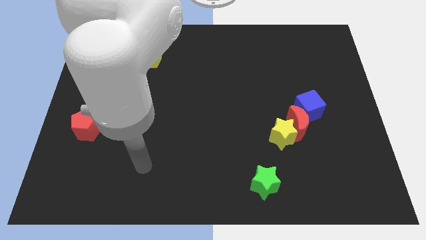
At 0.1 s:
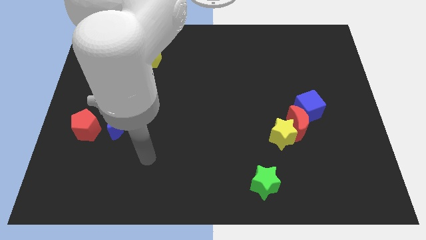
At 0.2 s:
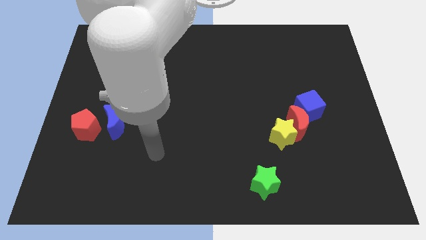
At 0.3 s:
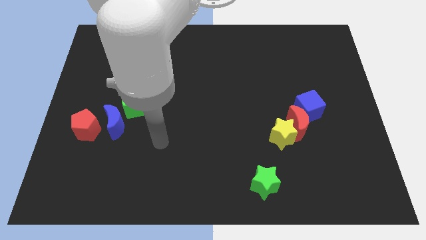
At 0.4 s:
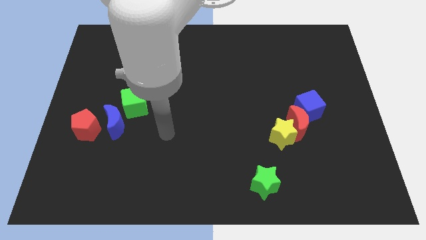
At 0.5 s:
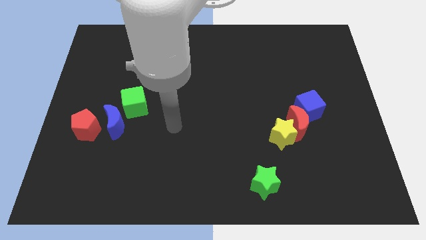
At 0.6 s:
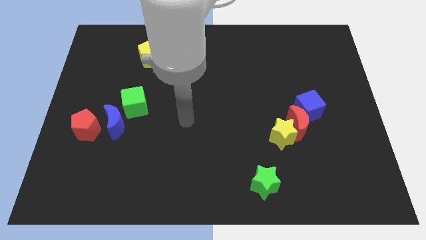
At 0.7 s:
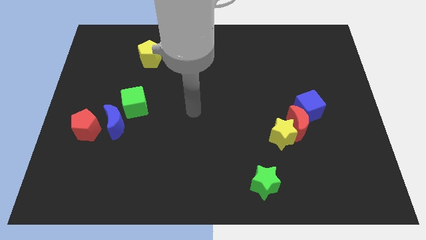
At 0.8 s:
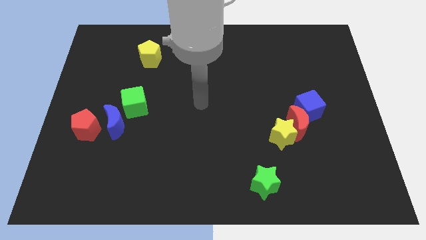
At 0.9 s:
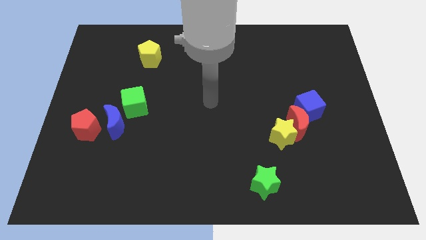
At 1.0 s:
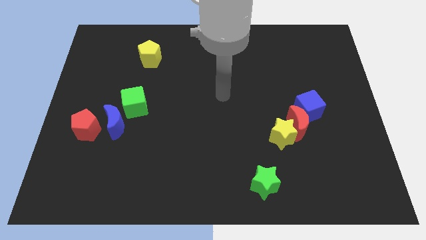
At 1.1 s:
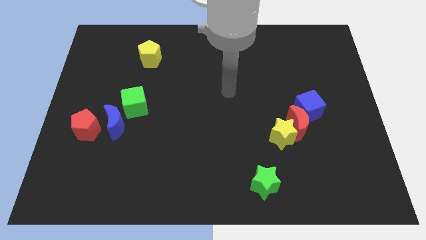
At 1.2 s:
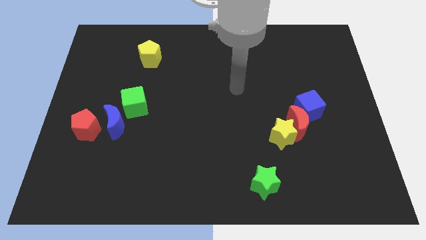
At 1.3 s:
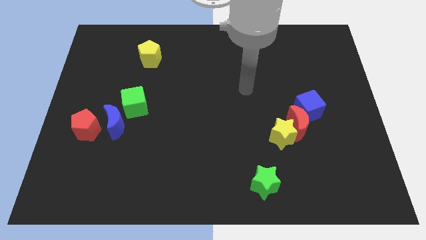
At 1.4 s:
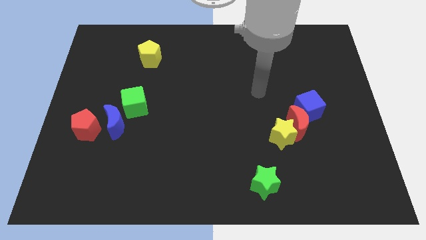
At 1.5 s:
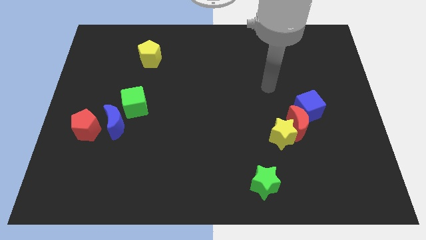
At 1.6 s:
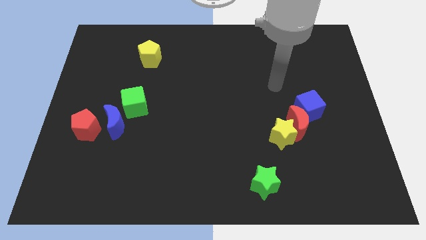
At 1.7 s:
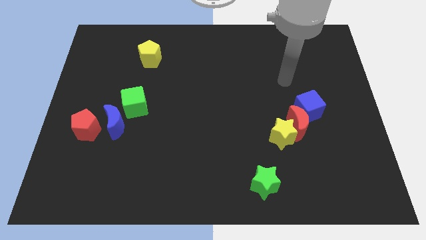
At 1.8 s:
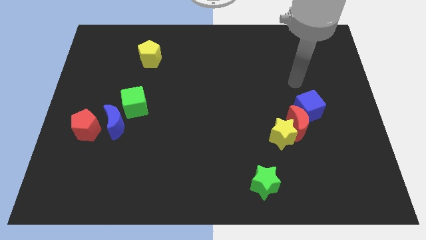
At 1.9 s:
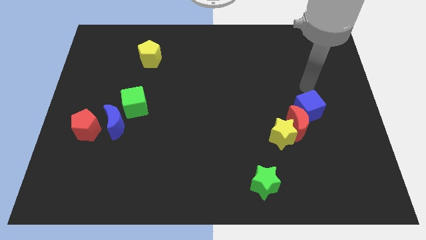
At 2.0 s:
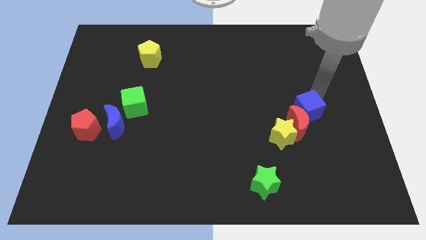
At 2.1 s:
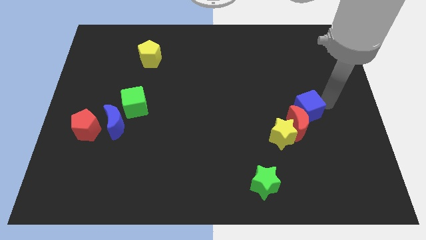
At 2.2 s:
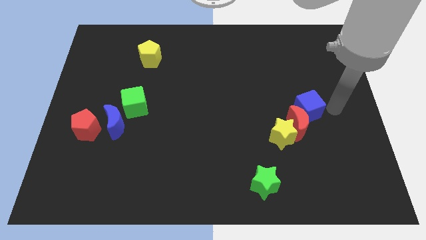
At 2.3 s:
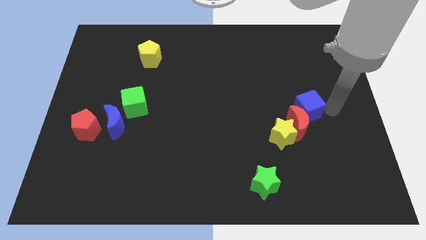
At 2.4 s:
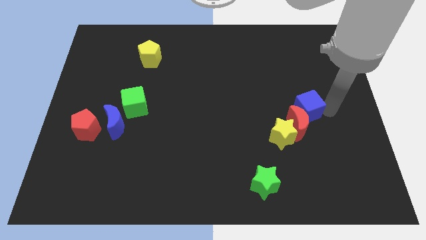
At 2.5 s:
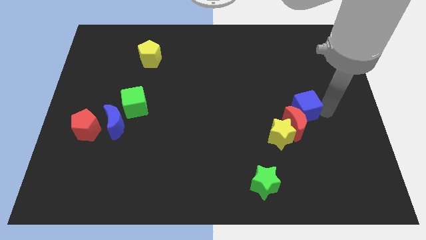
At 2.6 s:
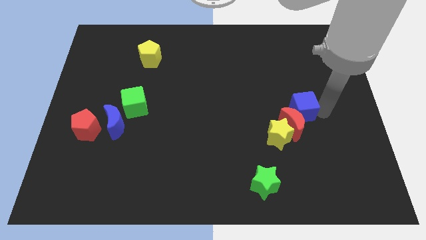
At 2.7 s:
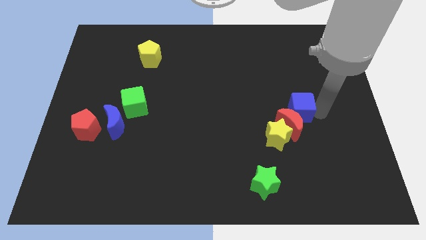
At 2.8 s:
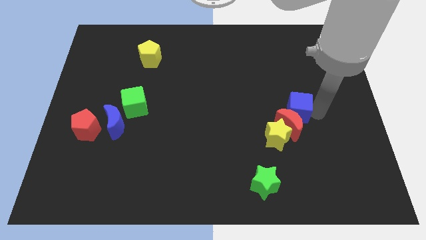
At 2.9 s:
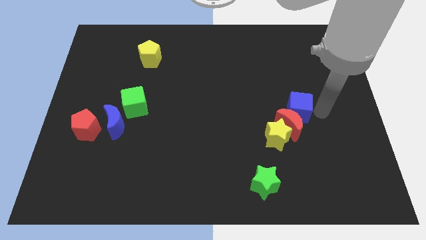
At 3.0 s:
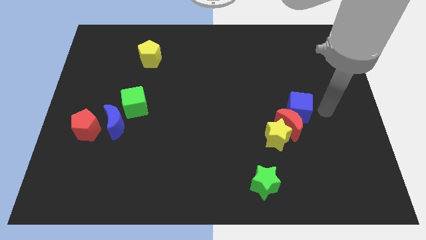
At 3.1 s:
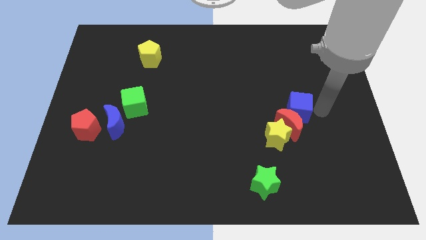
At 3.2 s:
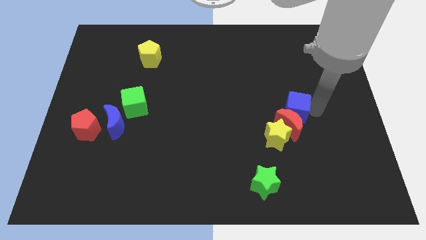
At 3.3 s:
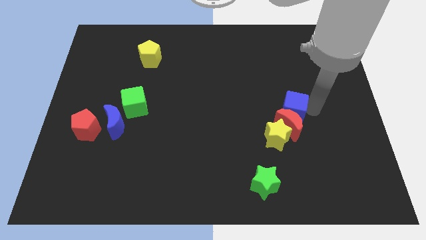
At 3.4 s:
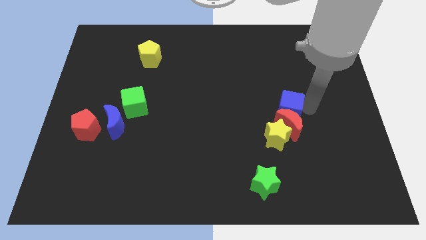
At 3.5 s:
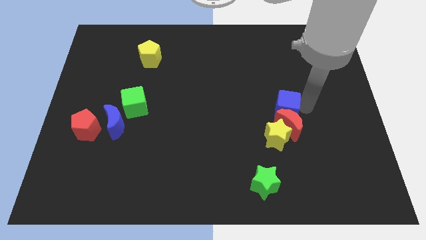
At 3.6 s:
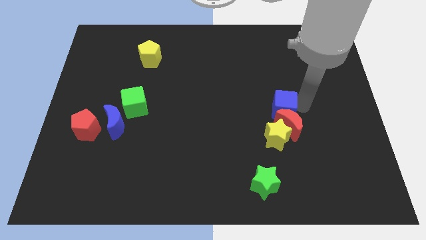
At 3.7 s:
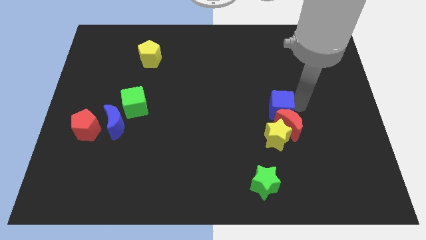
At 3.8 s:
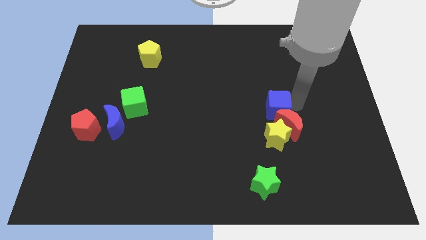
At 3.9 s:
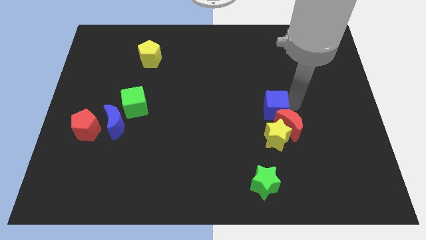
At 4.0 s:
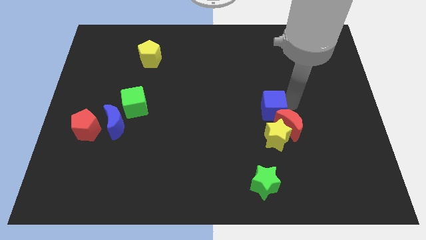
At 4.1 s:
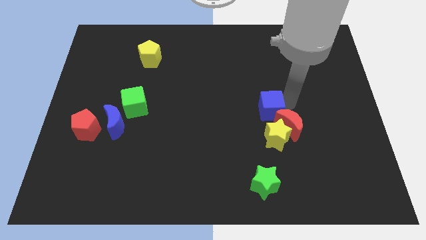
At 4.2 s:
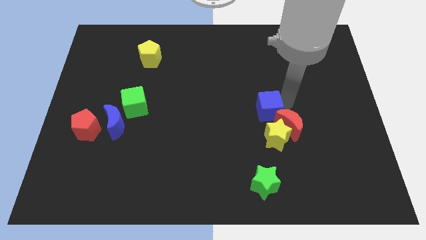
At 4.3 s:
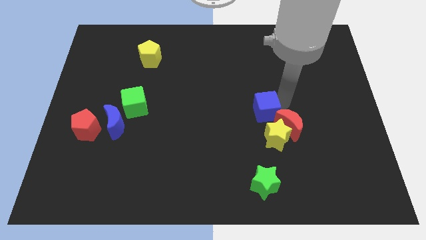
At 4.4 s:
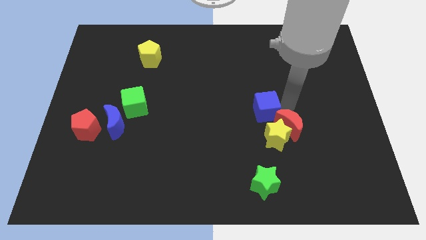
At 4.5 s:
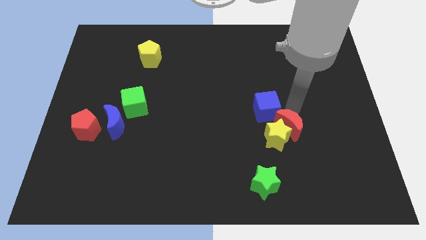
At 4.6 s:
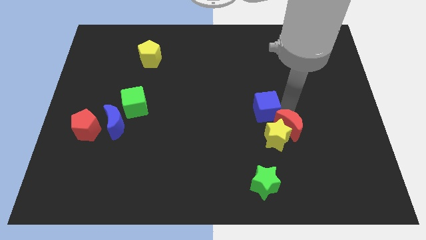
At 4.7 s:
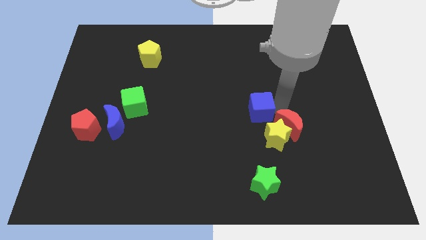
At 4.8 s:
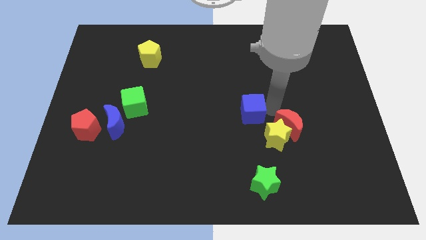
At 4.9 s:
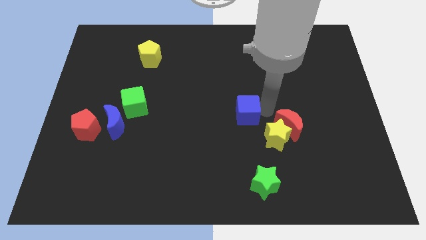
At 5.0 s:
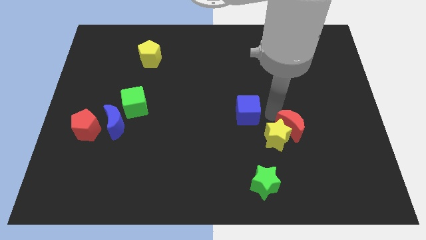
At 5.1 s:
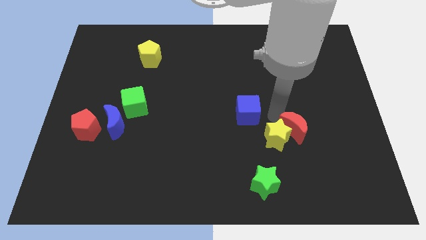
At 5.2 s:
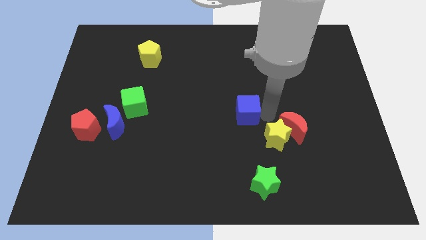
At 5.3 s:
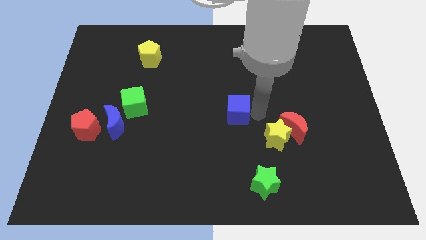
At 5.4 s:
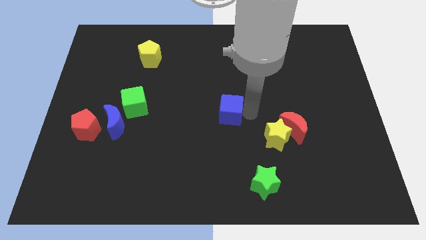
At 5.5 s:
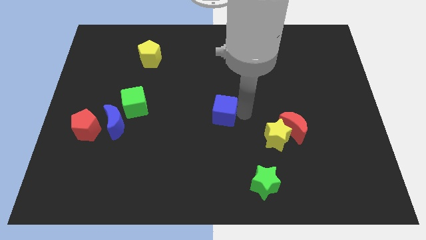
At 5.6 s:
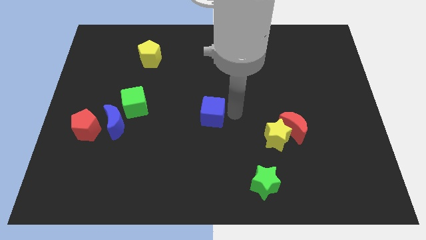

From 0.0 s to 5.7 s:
slide the blue cube to the left

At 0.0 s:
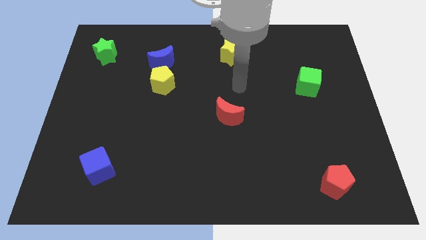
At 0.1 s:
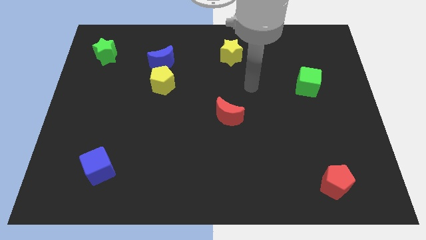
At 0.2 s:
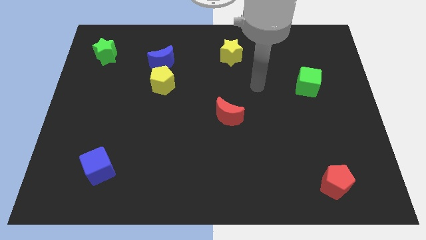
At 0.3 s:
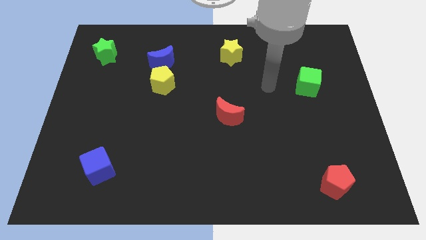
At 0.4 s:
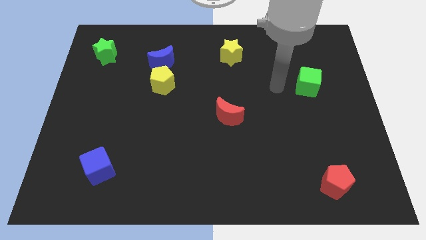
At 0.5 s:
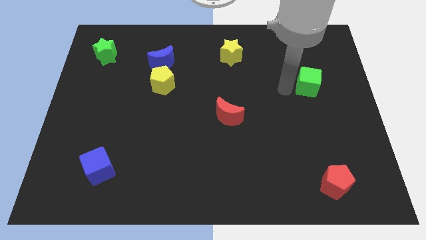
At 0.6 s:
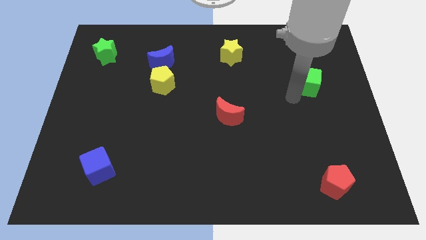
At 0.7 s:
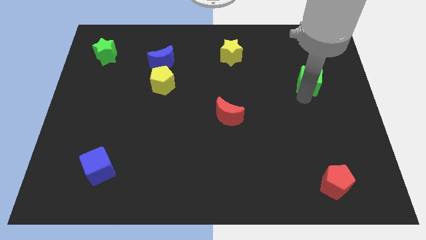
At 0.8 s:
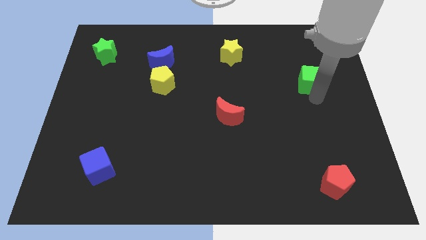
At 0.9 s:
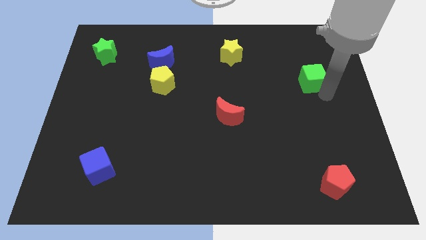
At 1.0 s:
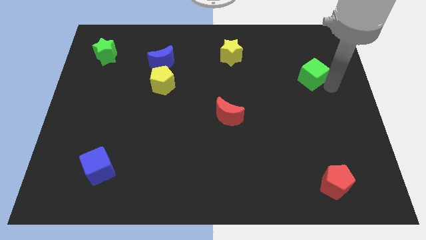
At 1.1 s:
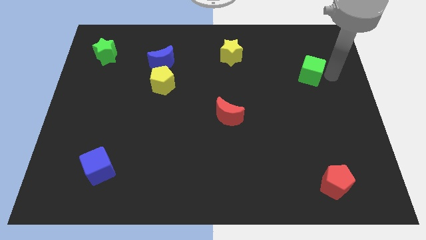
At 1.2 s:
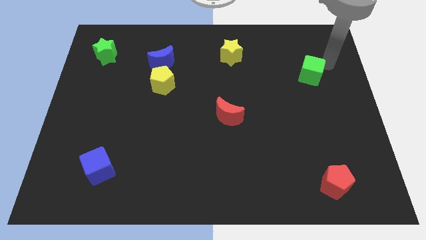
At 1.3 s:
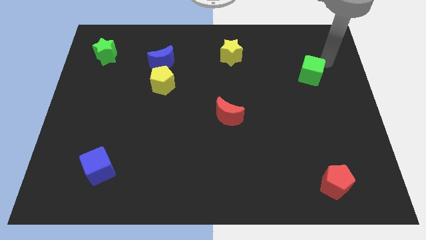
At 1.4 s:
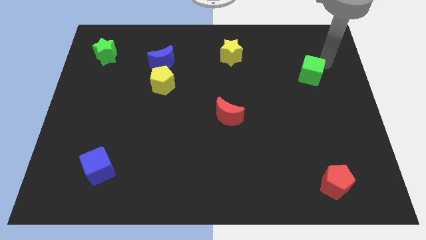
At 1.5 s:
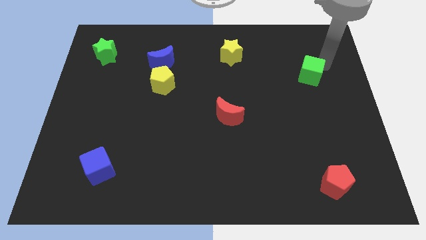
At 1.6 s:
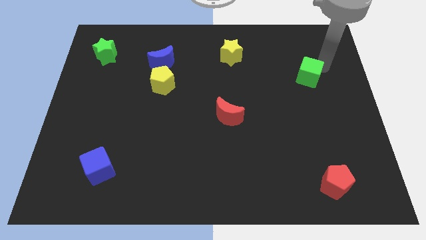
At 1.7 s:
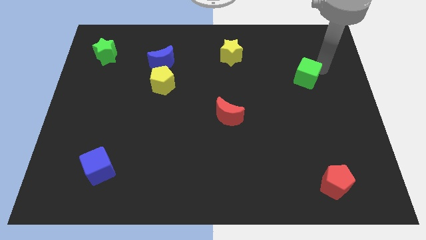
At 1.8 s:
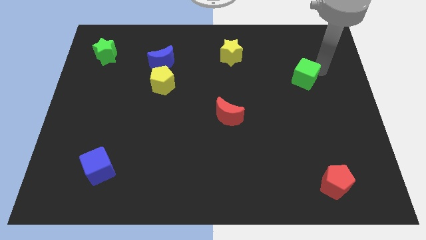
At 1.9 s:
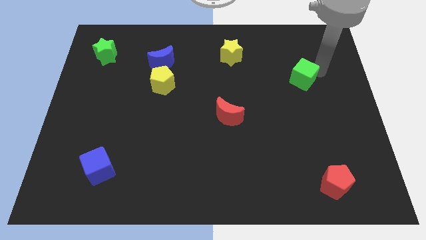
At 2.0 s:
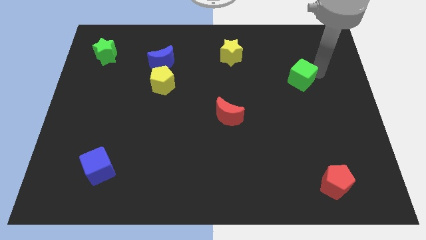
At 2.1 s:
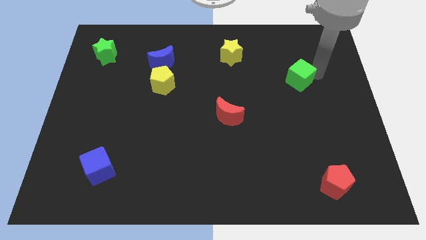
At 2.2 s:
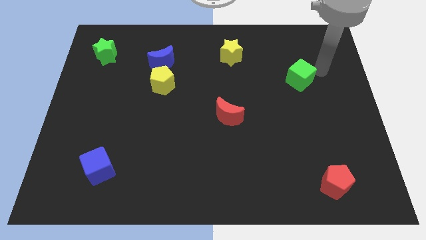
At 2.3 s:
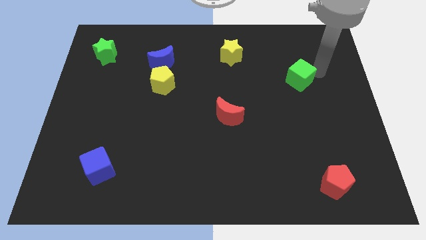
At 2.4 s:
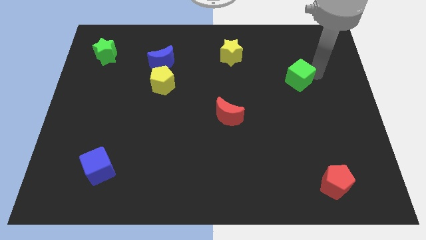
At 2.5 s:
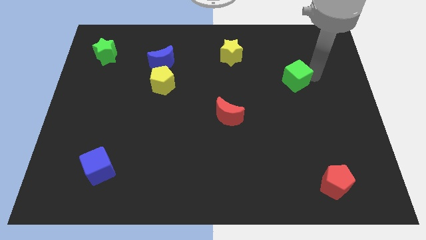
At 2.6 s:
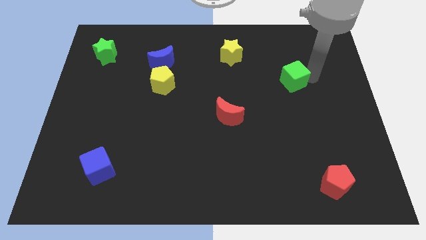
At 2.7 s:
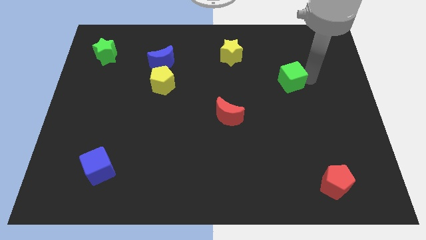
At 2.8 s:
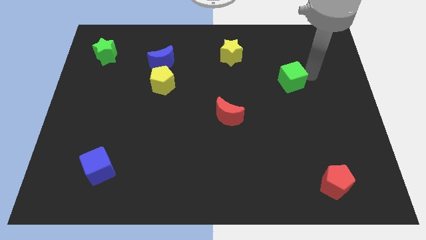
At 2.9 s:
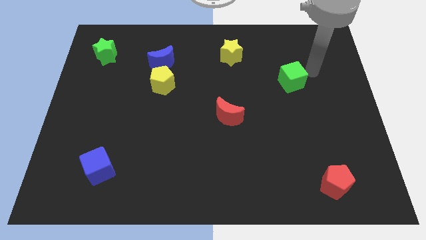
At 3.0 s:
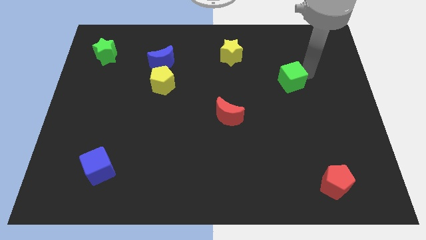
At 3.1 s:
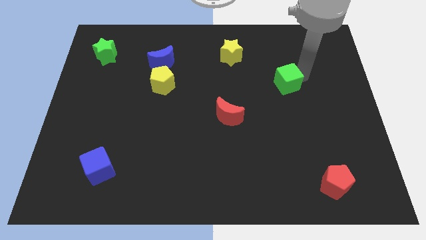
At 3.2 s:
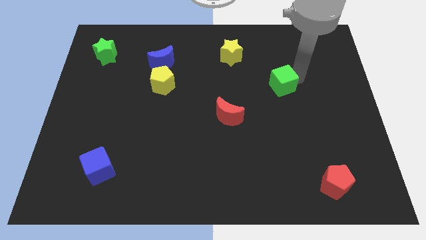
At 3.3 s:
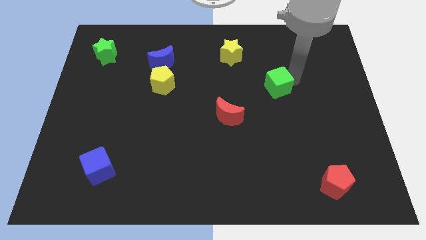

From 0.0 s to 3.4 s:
push the green cube left a little bit
